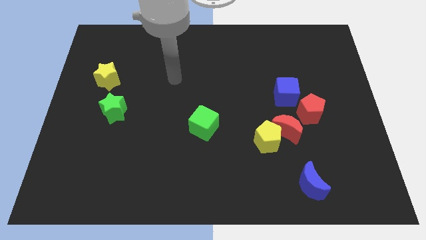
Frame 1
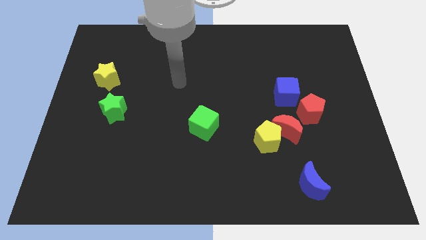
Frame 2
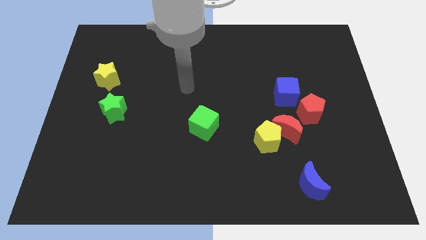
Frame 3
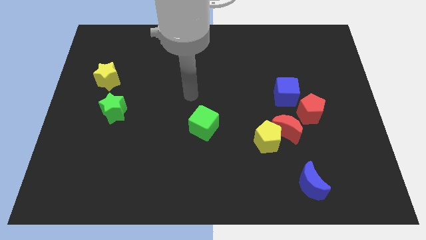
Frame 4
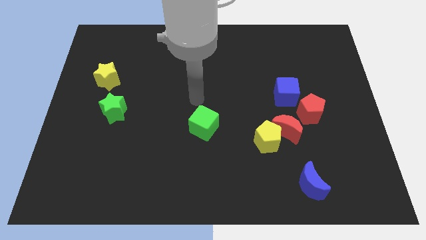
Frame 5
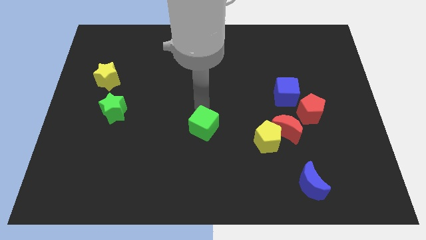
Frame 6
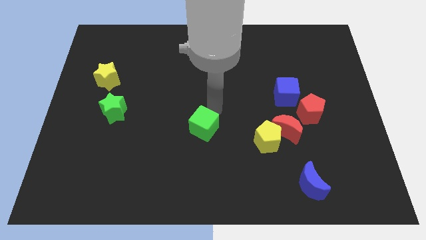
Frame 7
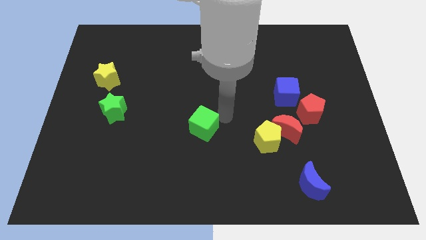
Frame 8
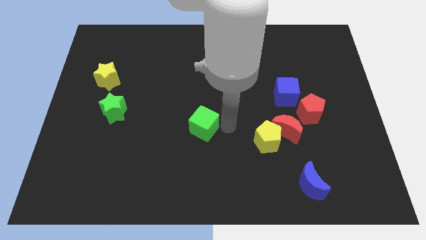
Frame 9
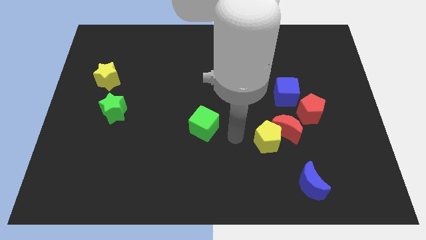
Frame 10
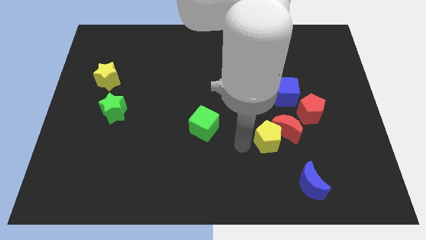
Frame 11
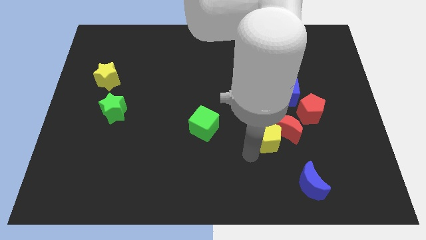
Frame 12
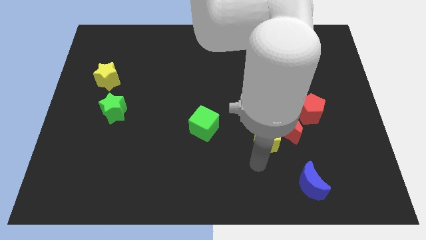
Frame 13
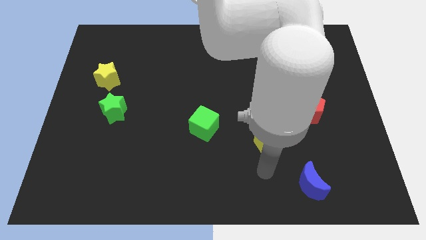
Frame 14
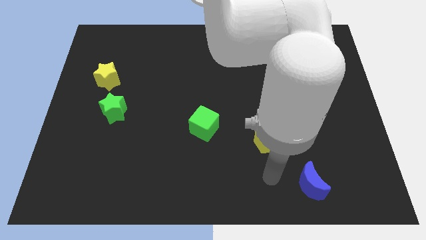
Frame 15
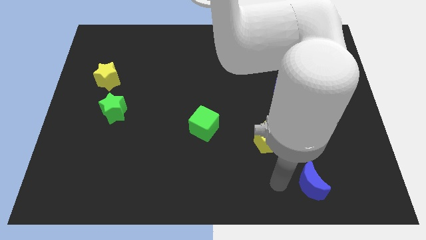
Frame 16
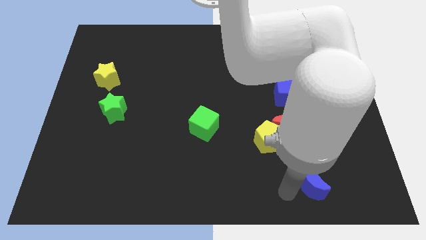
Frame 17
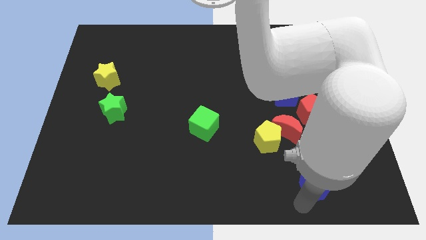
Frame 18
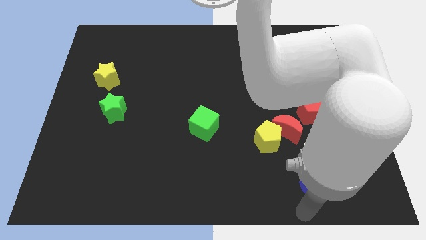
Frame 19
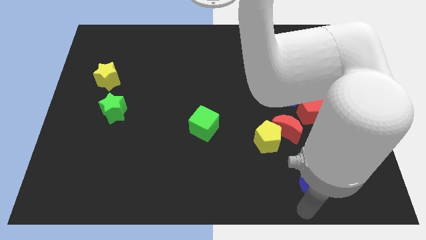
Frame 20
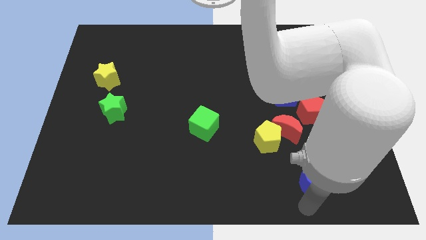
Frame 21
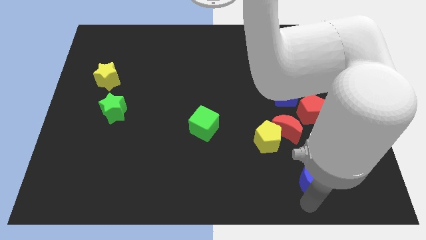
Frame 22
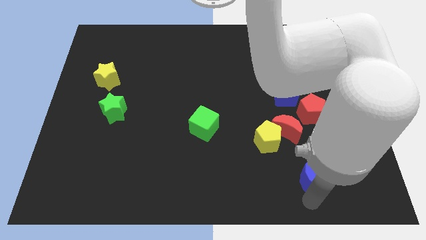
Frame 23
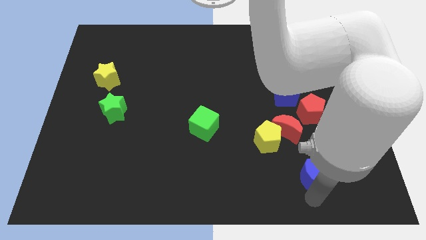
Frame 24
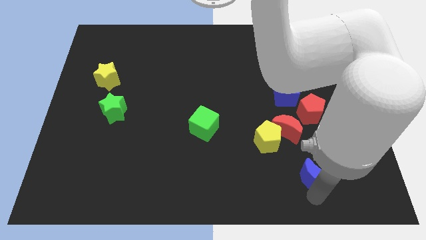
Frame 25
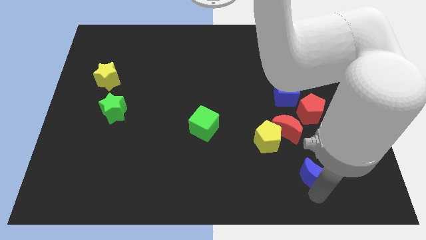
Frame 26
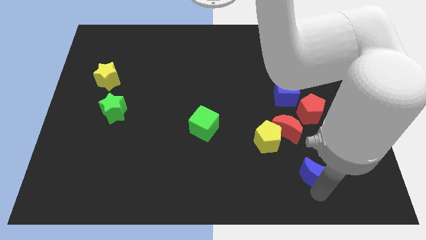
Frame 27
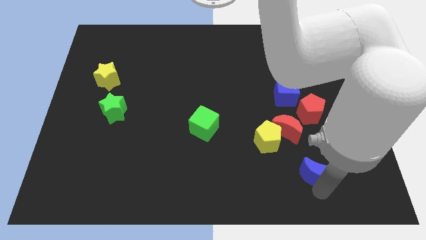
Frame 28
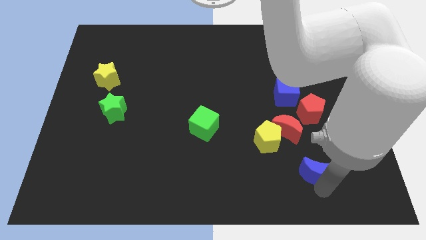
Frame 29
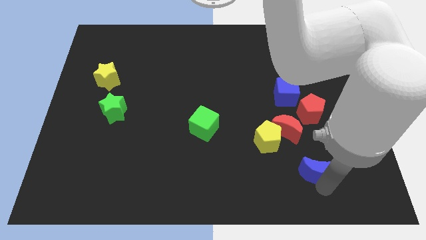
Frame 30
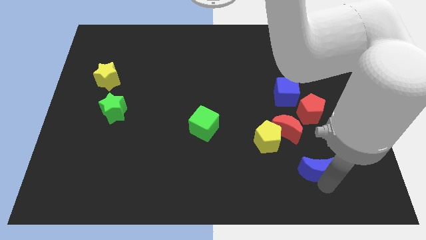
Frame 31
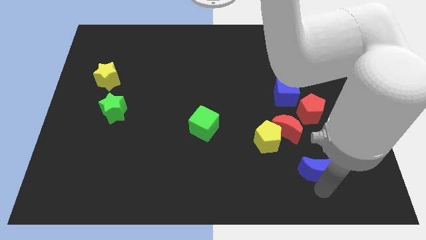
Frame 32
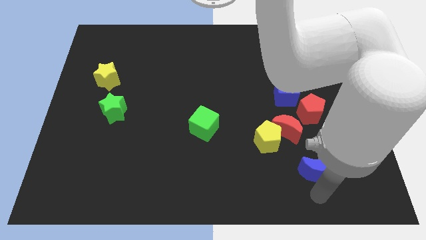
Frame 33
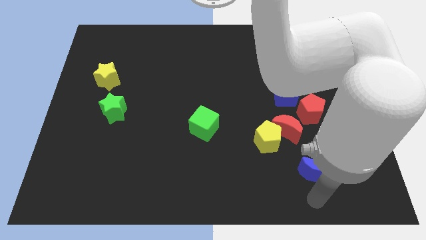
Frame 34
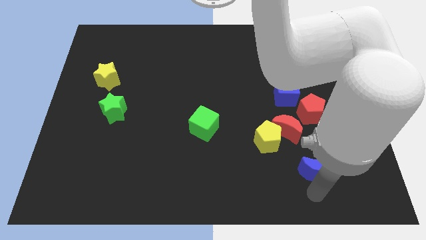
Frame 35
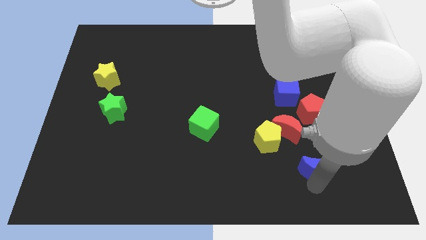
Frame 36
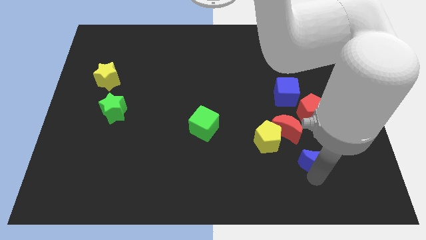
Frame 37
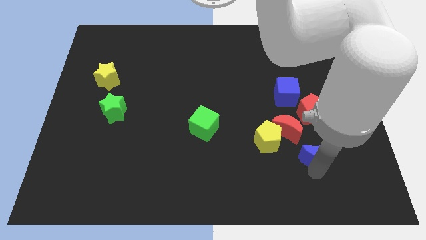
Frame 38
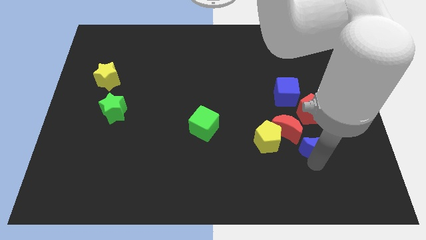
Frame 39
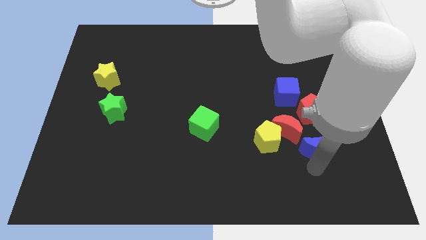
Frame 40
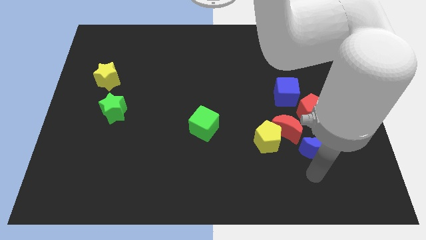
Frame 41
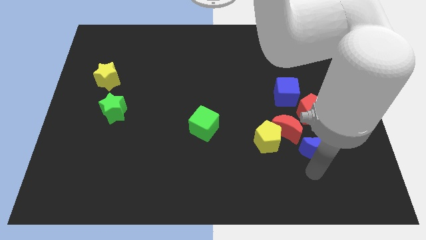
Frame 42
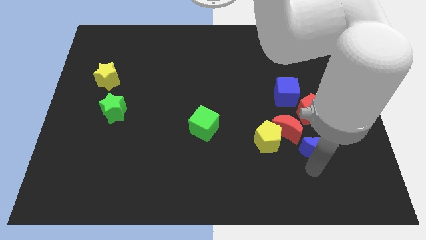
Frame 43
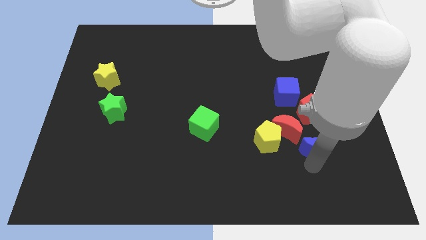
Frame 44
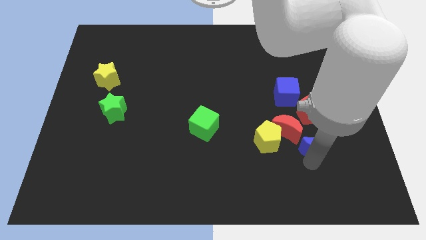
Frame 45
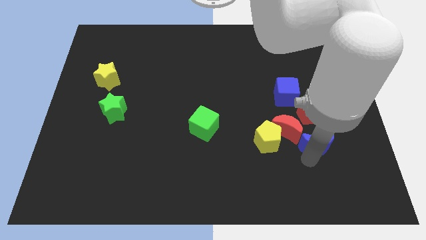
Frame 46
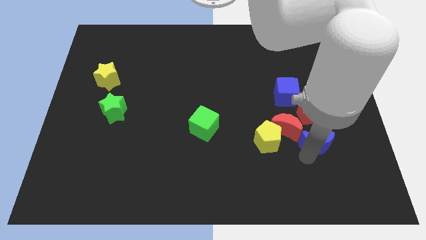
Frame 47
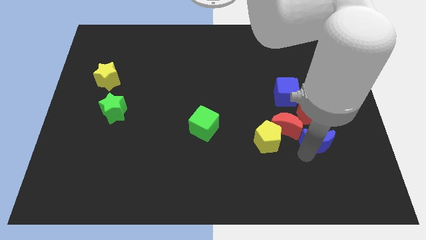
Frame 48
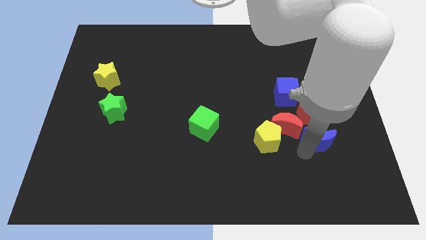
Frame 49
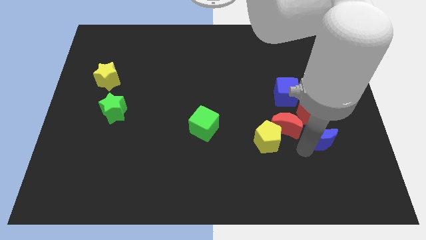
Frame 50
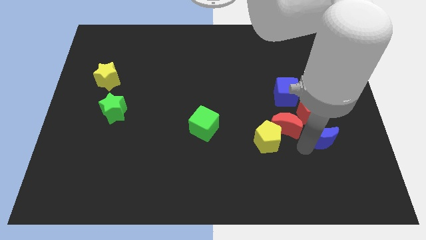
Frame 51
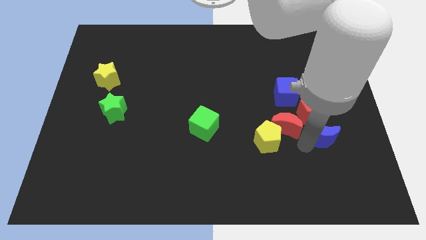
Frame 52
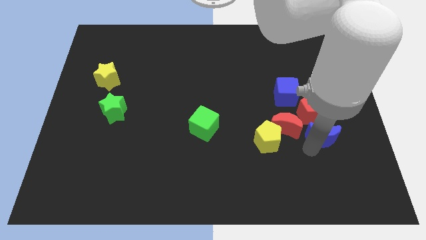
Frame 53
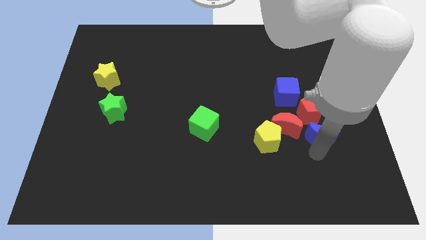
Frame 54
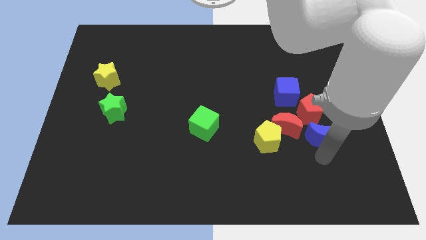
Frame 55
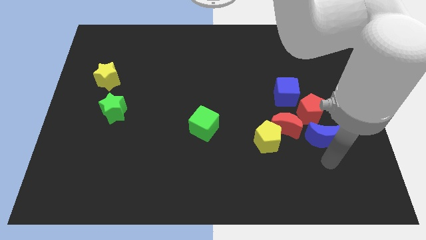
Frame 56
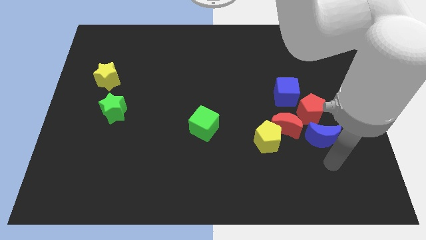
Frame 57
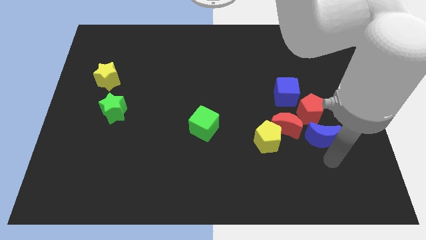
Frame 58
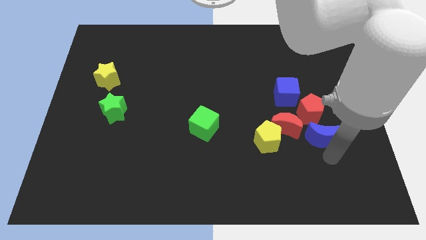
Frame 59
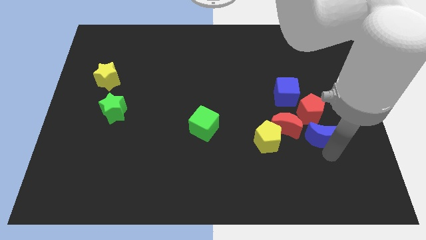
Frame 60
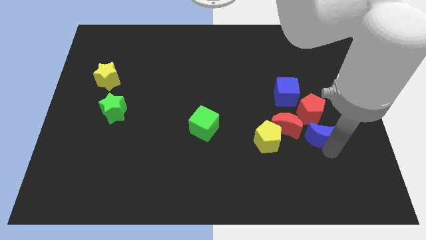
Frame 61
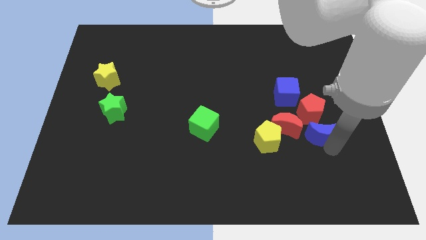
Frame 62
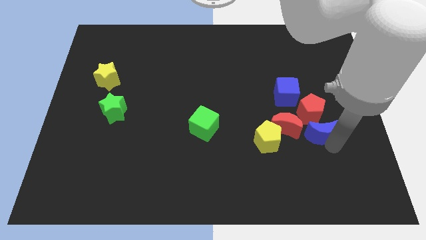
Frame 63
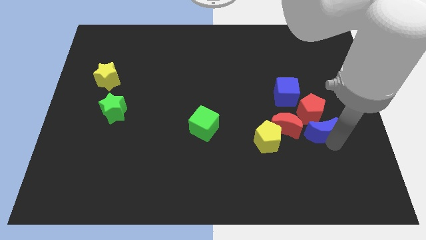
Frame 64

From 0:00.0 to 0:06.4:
put the blue moon close to the red pentagon

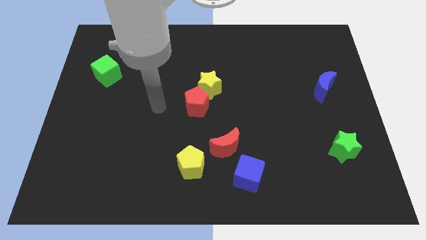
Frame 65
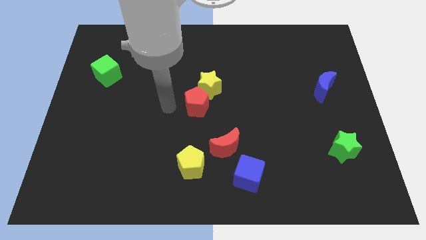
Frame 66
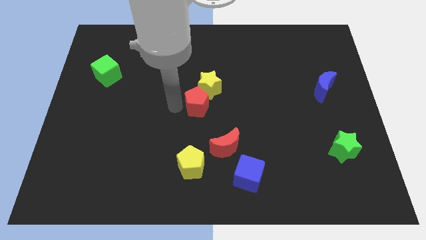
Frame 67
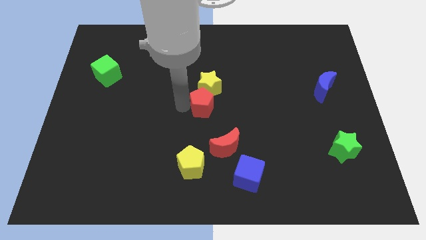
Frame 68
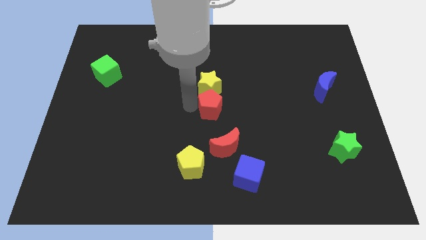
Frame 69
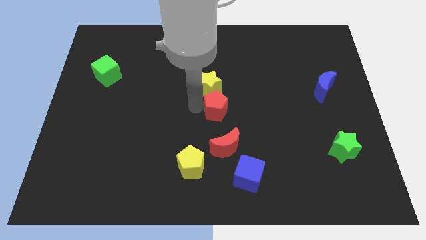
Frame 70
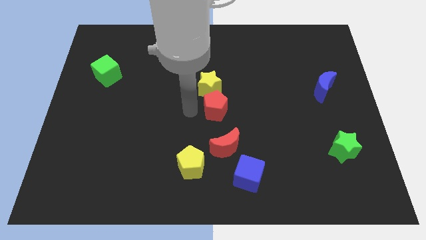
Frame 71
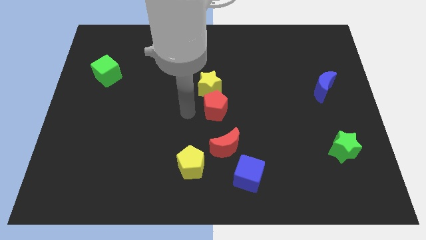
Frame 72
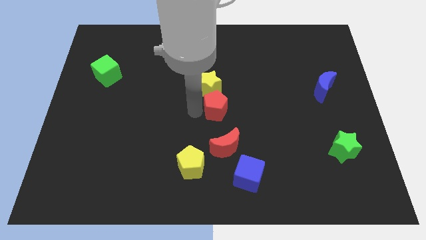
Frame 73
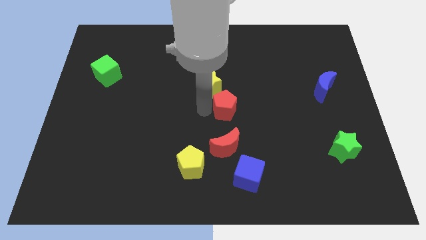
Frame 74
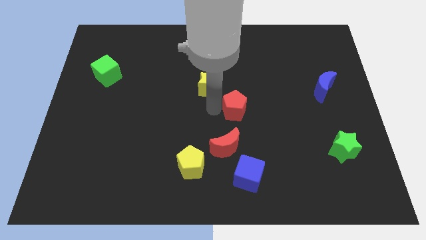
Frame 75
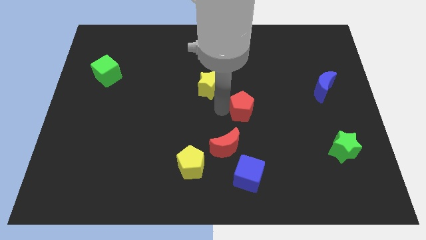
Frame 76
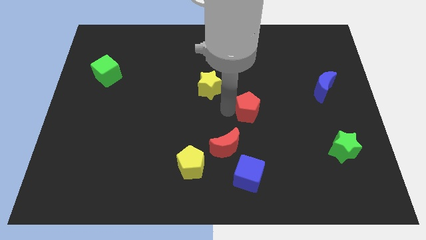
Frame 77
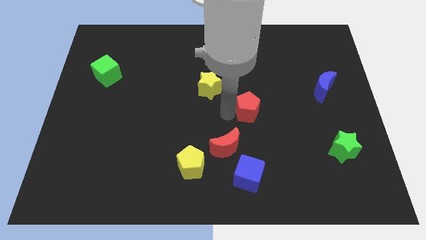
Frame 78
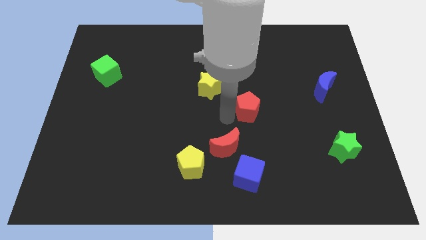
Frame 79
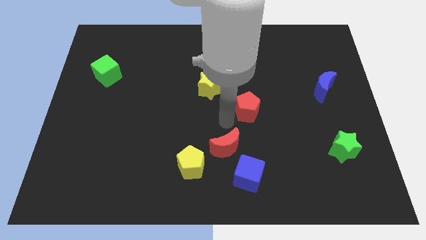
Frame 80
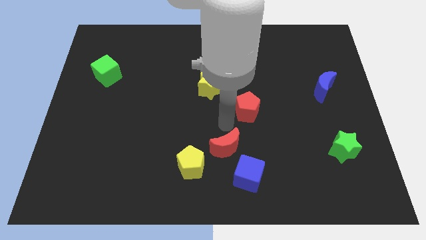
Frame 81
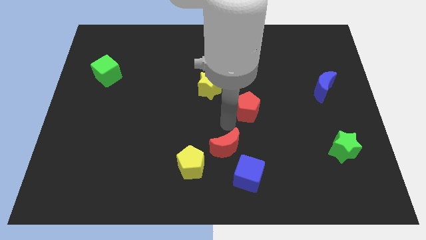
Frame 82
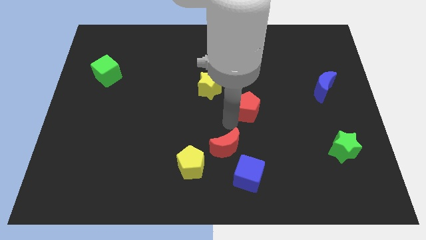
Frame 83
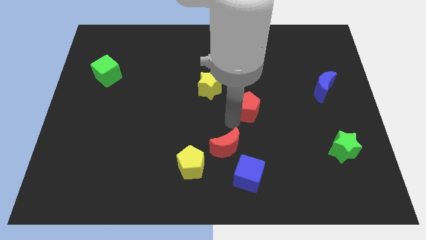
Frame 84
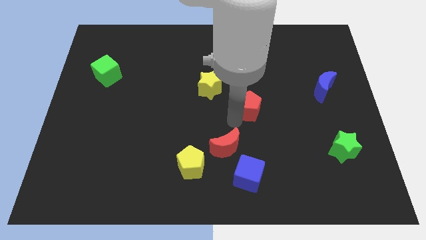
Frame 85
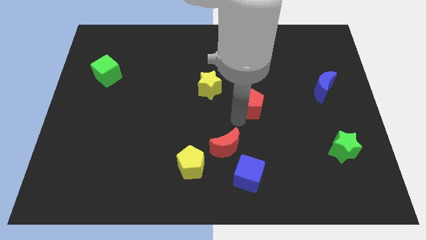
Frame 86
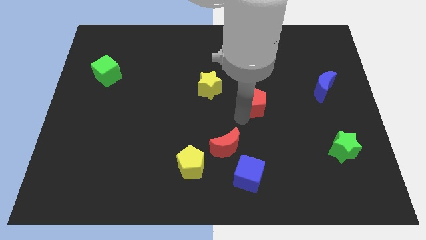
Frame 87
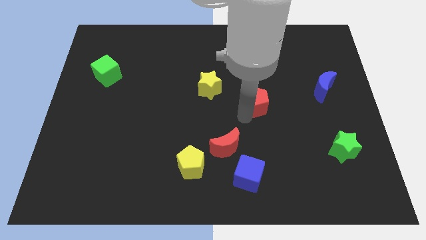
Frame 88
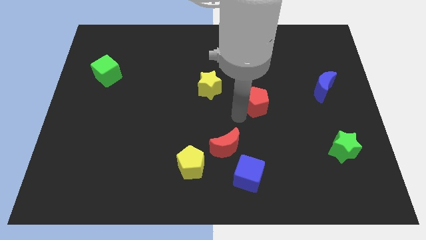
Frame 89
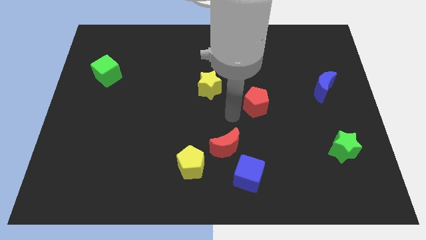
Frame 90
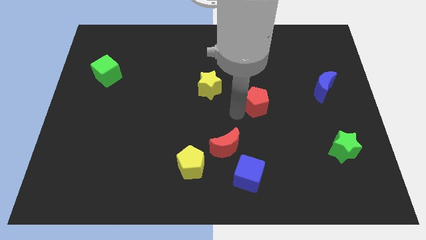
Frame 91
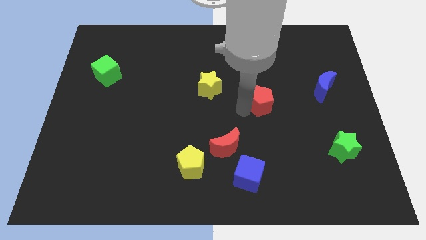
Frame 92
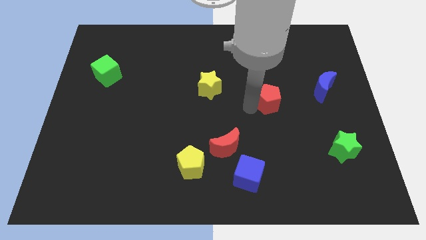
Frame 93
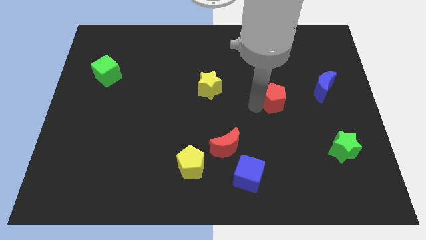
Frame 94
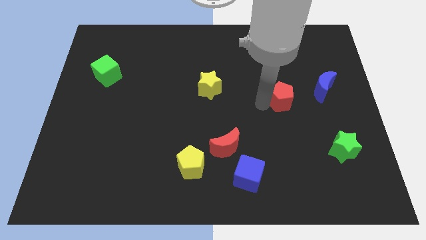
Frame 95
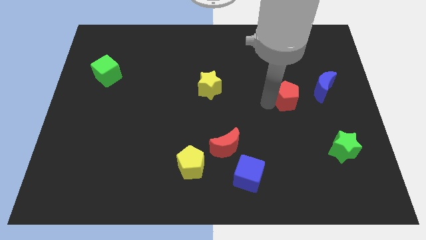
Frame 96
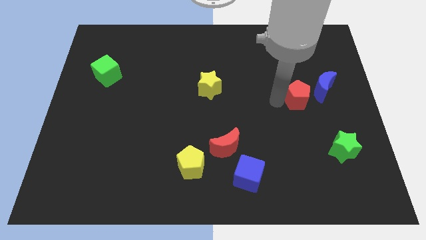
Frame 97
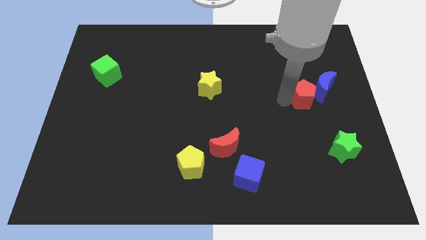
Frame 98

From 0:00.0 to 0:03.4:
put the red pentagon to the blue moon
